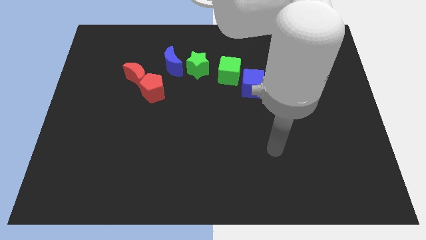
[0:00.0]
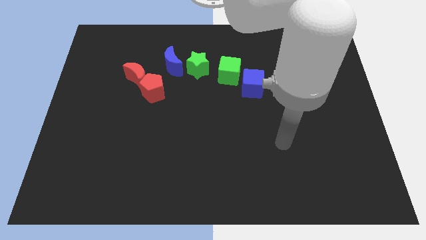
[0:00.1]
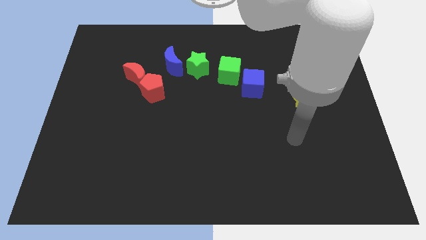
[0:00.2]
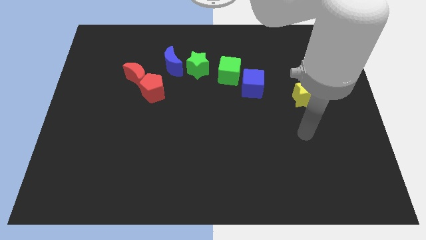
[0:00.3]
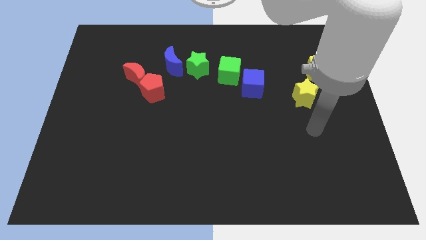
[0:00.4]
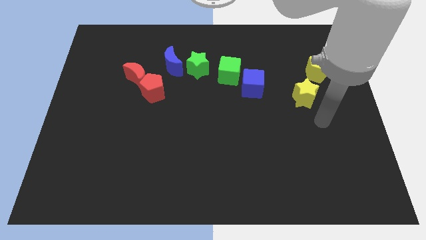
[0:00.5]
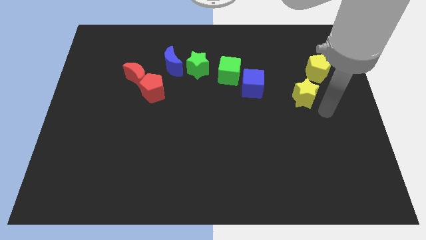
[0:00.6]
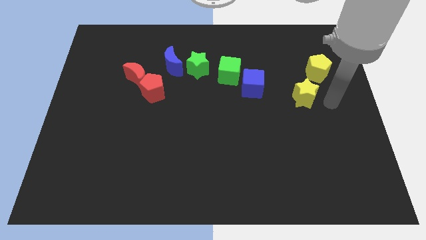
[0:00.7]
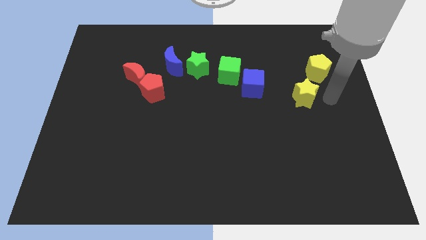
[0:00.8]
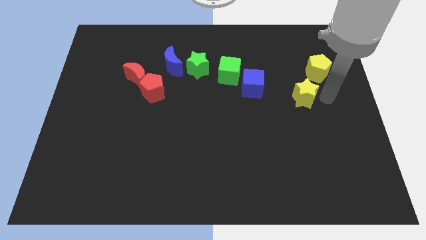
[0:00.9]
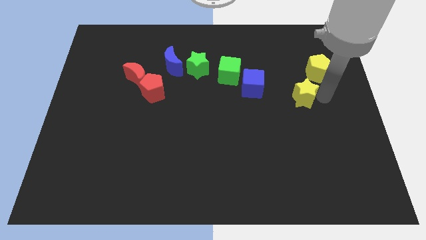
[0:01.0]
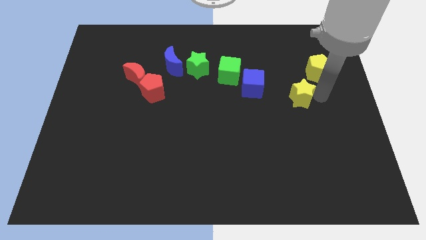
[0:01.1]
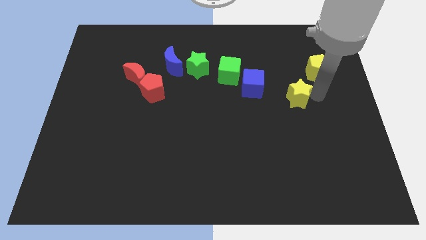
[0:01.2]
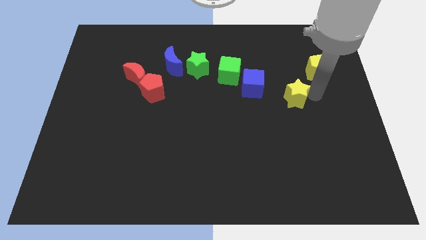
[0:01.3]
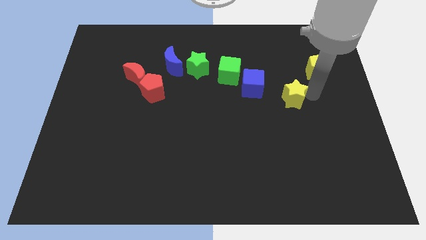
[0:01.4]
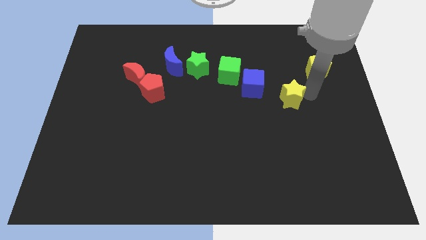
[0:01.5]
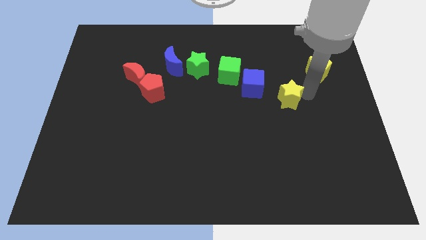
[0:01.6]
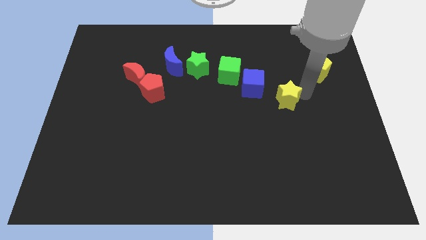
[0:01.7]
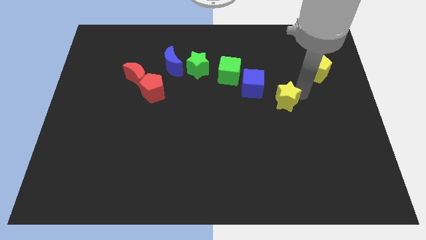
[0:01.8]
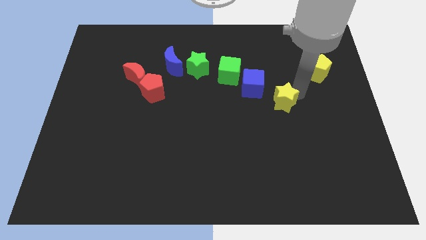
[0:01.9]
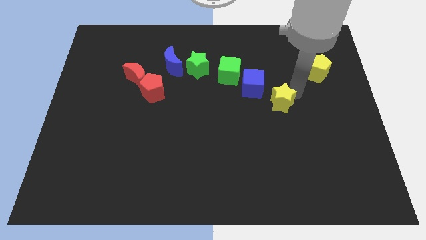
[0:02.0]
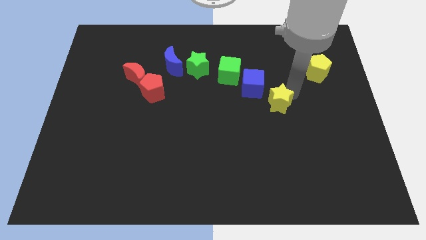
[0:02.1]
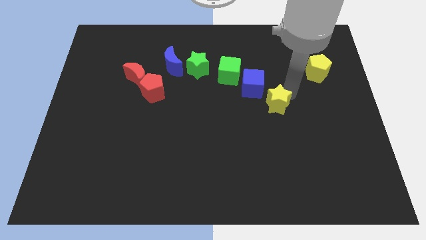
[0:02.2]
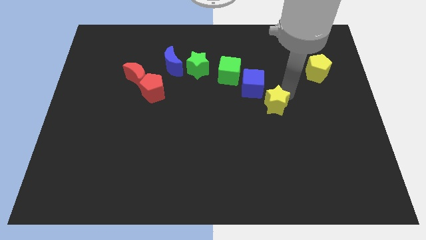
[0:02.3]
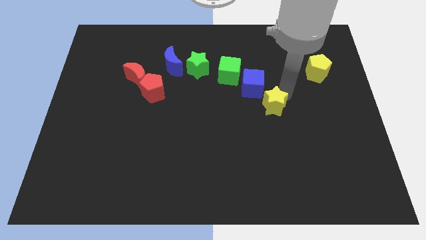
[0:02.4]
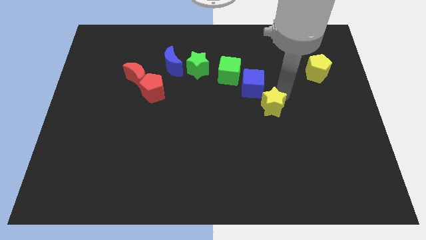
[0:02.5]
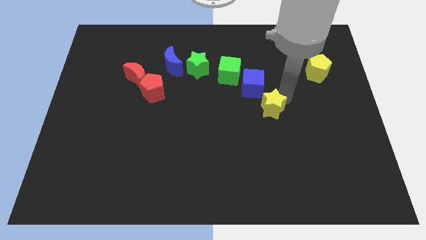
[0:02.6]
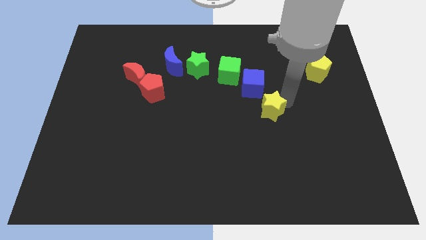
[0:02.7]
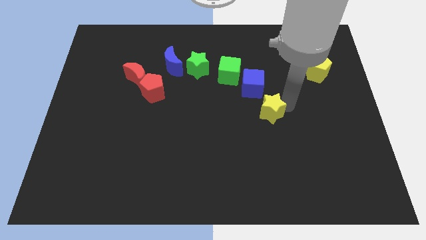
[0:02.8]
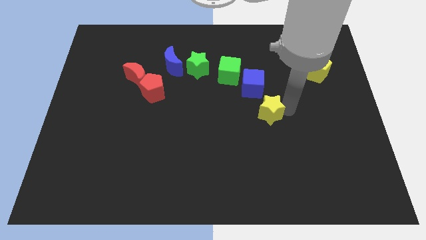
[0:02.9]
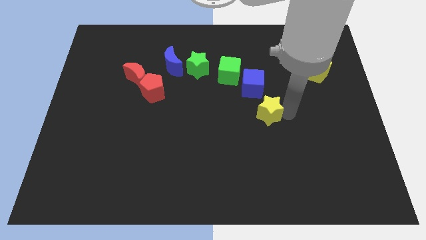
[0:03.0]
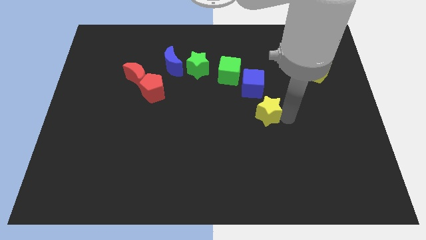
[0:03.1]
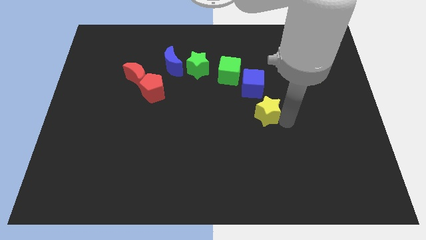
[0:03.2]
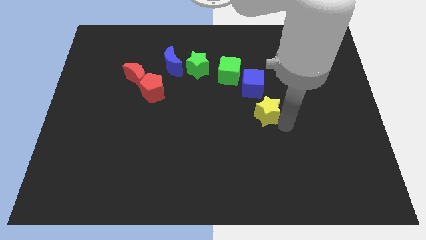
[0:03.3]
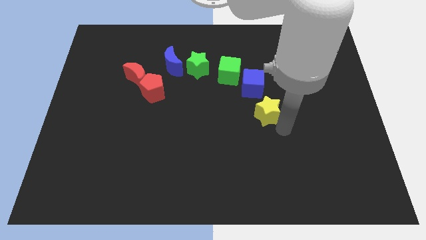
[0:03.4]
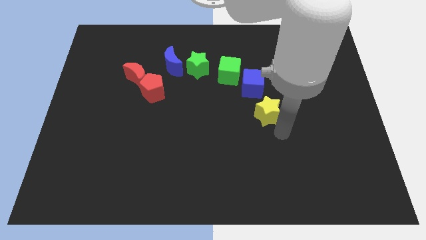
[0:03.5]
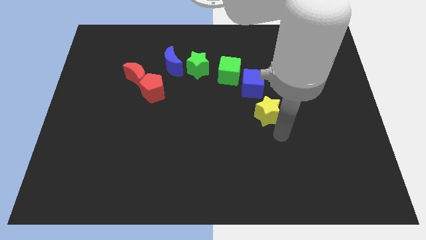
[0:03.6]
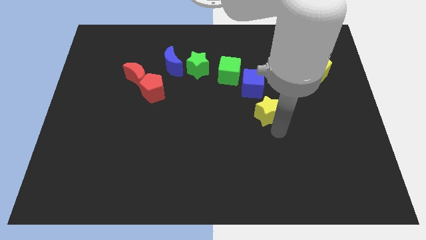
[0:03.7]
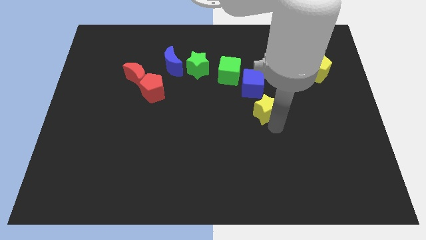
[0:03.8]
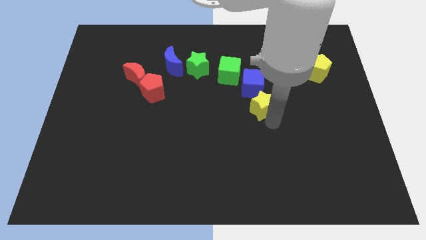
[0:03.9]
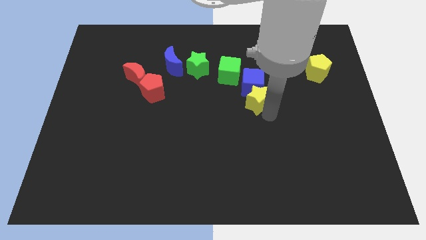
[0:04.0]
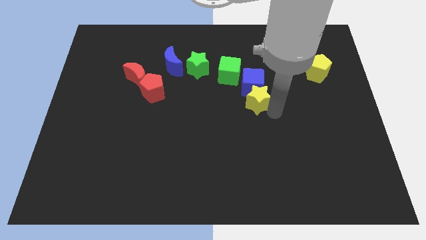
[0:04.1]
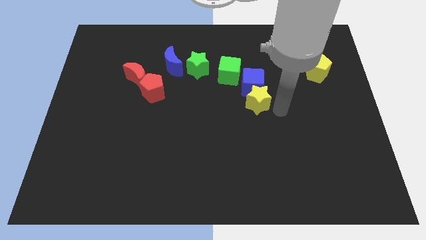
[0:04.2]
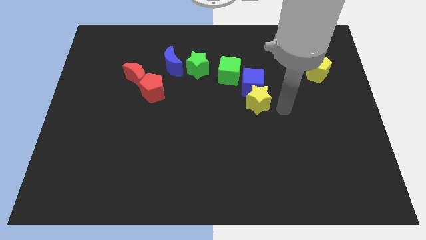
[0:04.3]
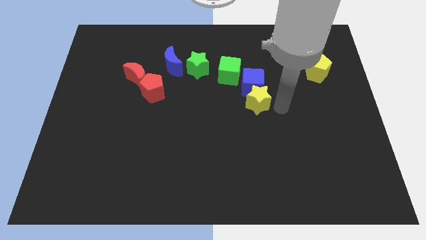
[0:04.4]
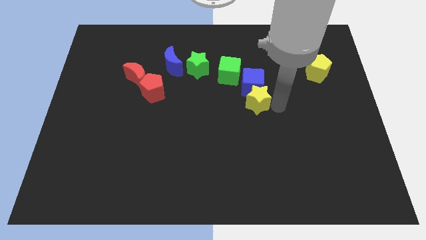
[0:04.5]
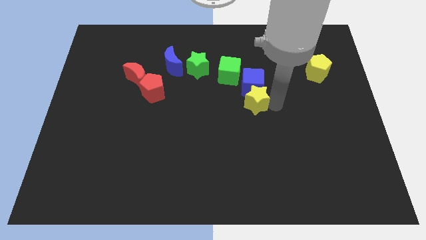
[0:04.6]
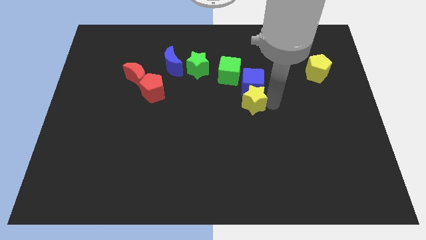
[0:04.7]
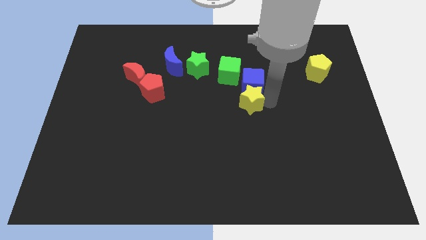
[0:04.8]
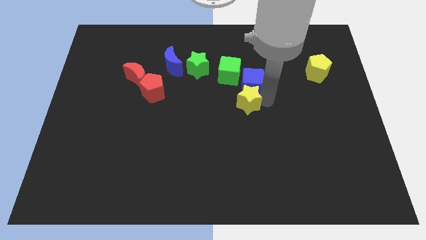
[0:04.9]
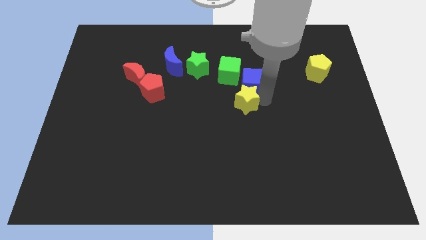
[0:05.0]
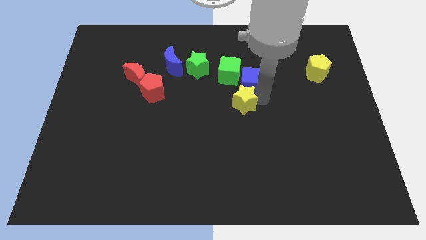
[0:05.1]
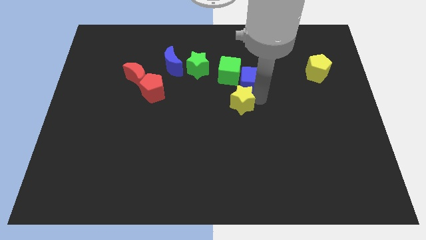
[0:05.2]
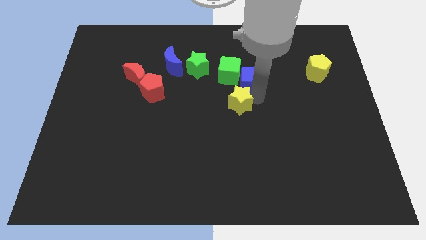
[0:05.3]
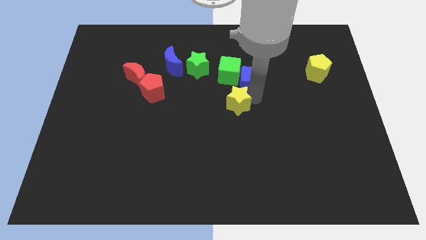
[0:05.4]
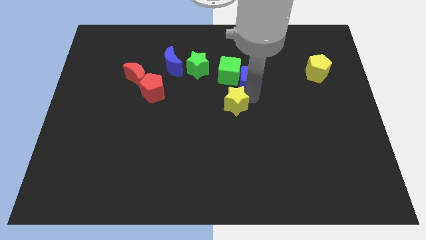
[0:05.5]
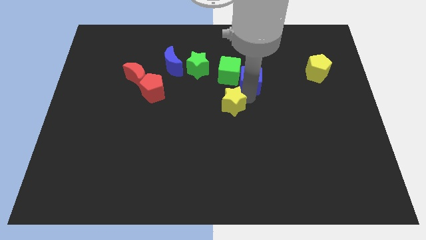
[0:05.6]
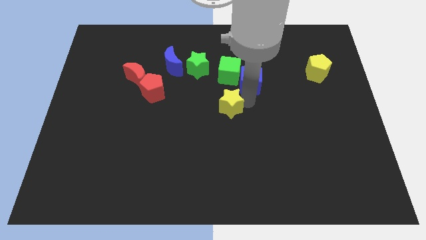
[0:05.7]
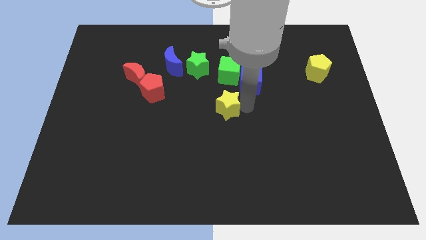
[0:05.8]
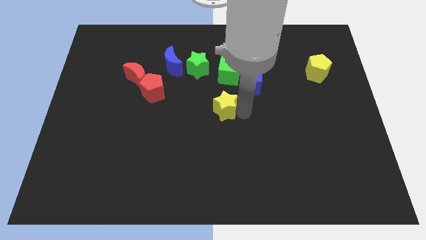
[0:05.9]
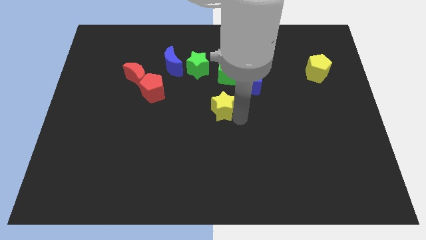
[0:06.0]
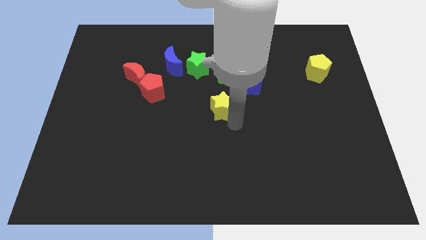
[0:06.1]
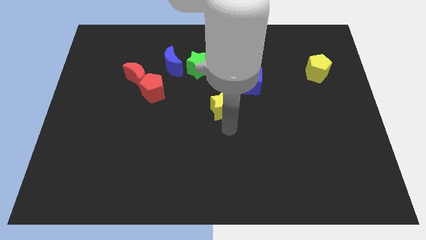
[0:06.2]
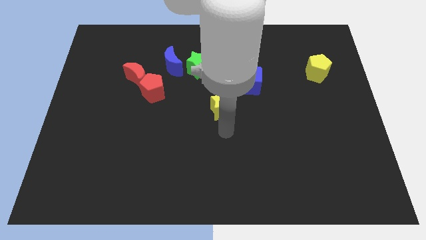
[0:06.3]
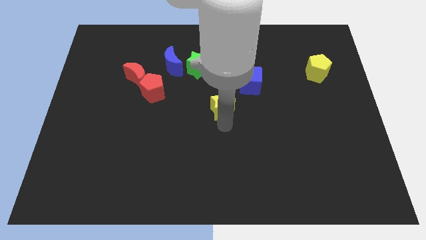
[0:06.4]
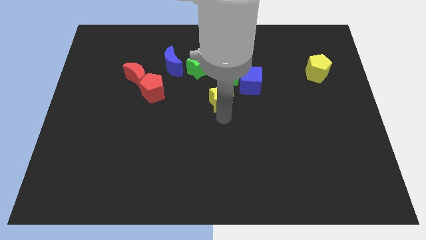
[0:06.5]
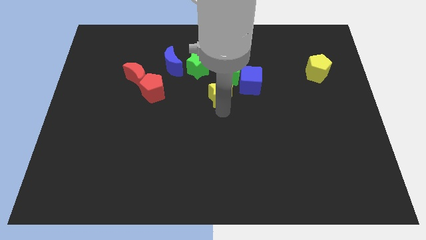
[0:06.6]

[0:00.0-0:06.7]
put the yellow star diagonally down and to the right of the green star

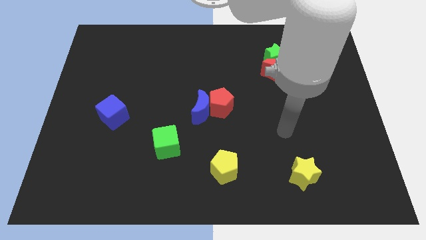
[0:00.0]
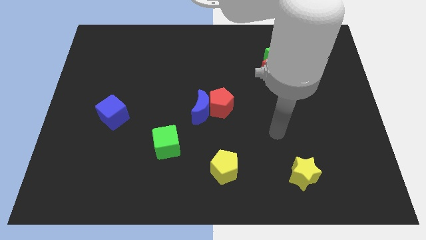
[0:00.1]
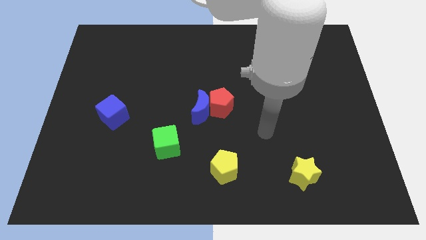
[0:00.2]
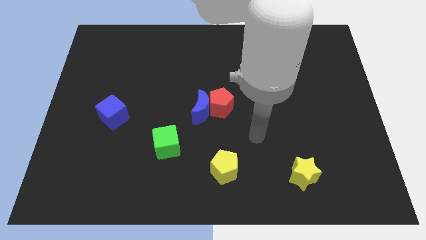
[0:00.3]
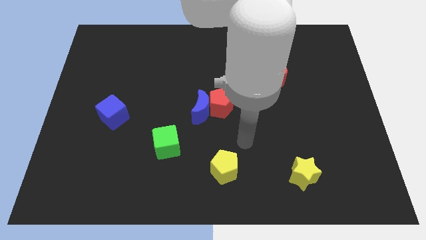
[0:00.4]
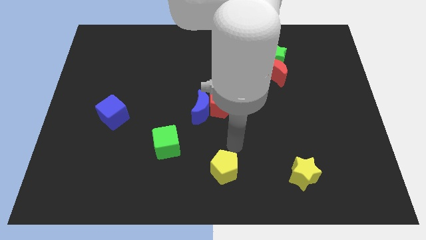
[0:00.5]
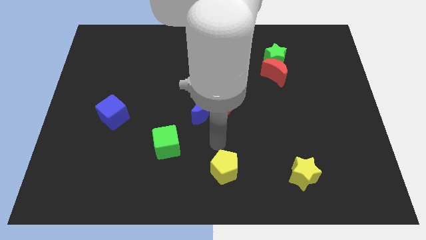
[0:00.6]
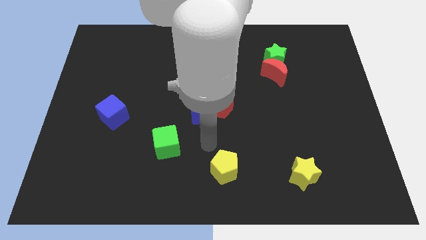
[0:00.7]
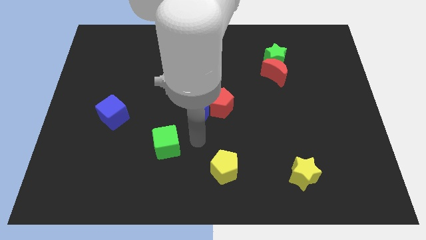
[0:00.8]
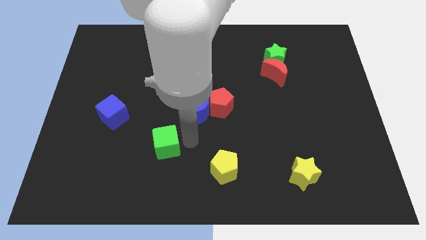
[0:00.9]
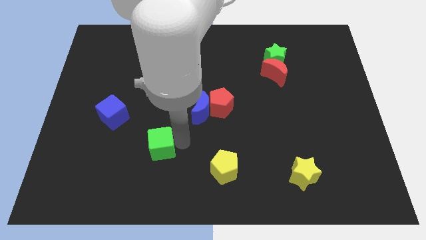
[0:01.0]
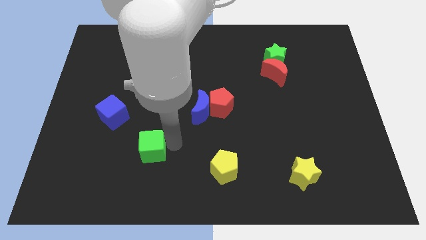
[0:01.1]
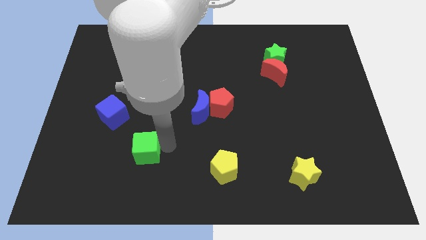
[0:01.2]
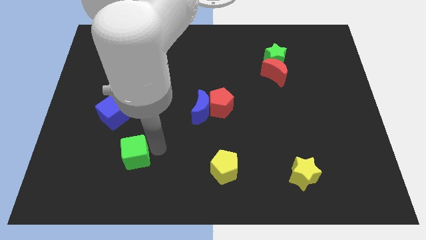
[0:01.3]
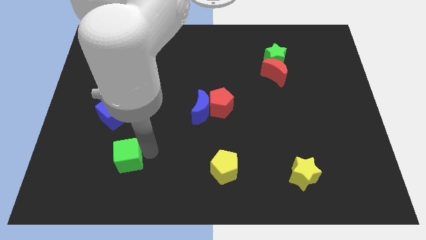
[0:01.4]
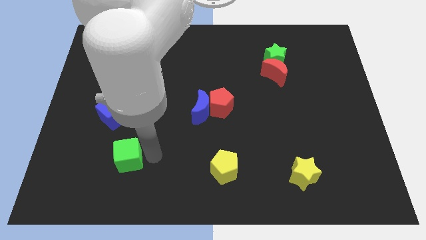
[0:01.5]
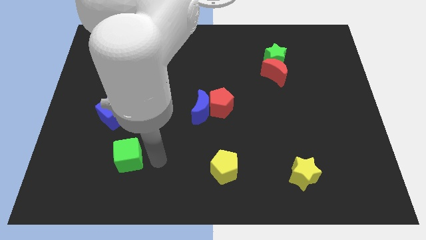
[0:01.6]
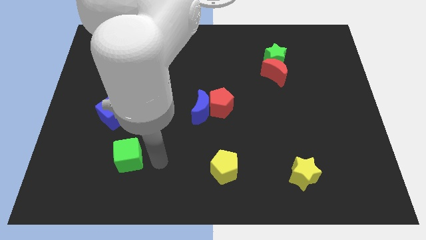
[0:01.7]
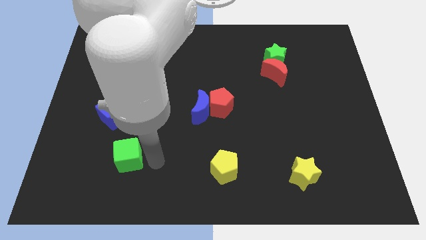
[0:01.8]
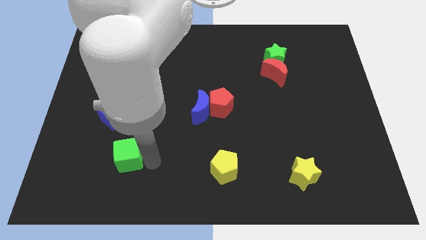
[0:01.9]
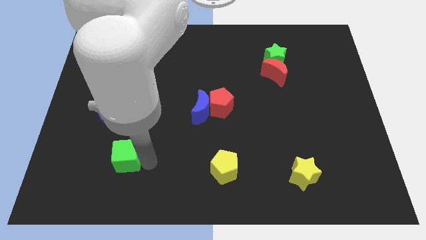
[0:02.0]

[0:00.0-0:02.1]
move the green cube to the bottom side of the blue cube
